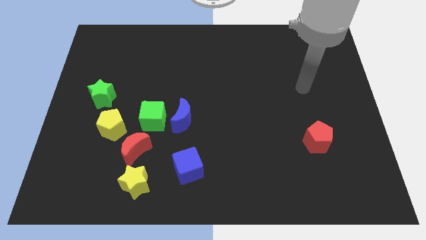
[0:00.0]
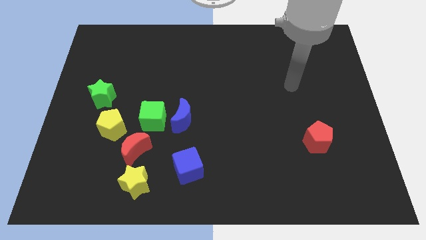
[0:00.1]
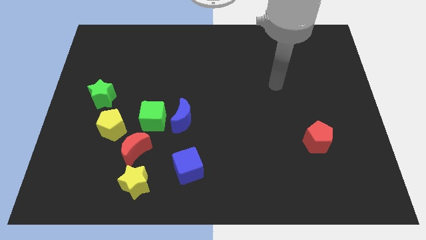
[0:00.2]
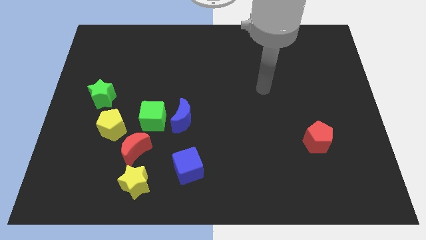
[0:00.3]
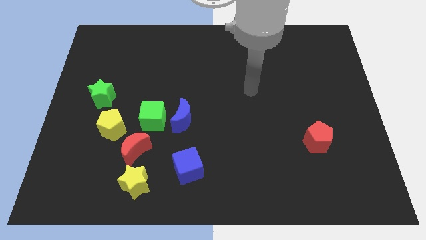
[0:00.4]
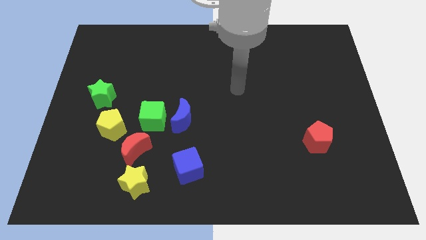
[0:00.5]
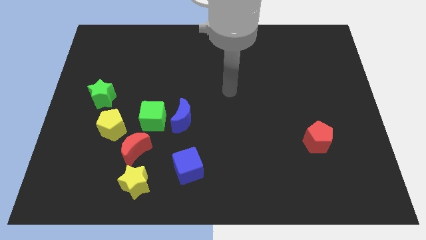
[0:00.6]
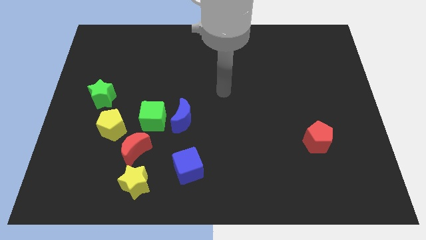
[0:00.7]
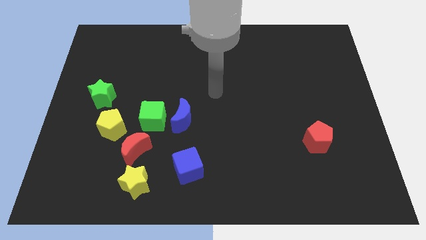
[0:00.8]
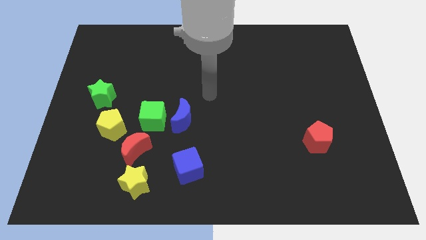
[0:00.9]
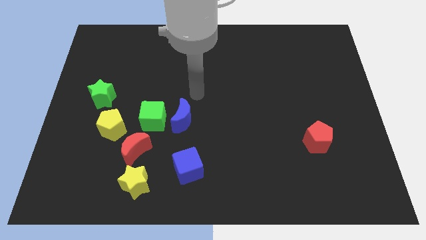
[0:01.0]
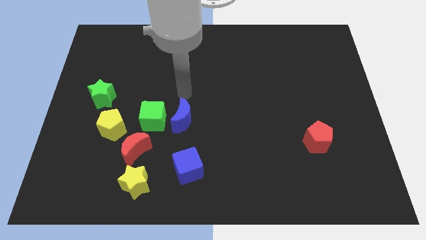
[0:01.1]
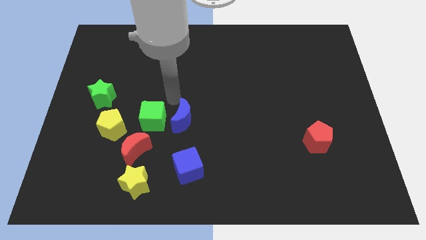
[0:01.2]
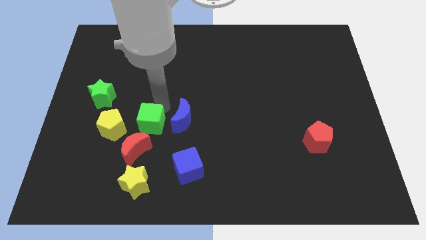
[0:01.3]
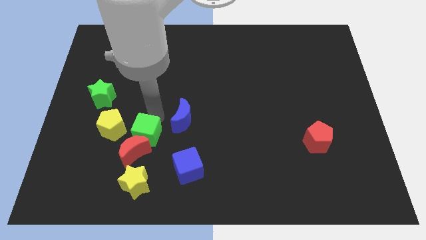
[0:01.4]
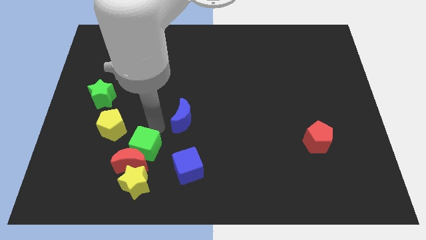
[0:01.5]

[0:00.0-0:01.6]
move the blue moon away from the green cube

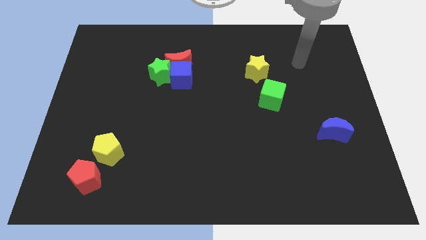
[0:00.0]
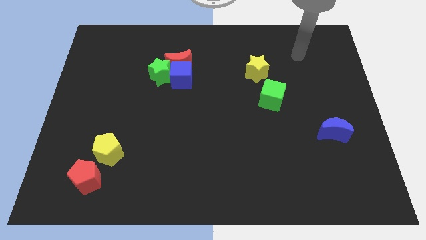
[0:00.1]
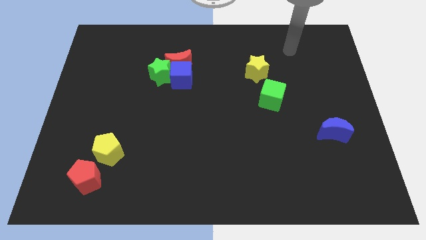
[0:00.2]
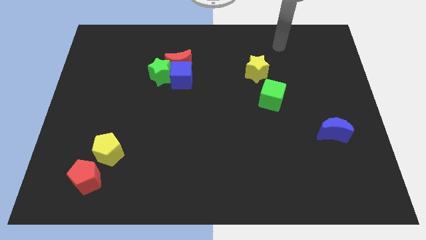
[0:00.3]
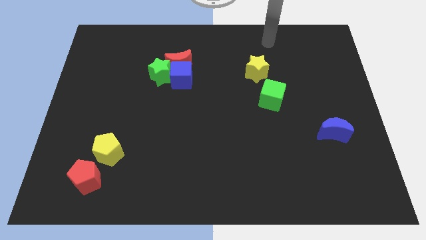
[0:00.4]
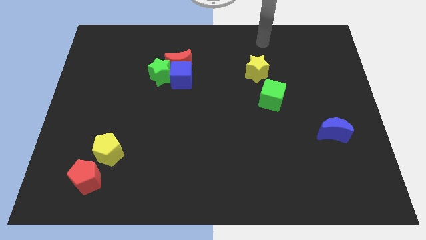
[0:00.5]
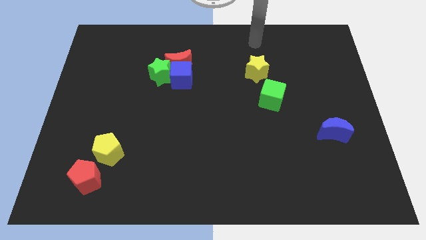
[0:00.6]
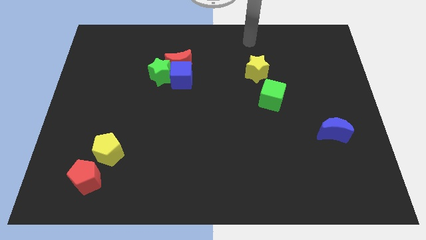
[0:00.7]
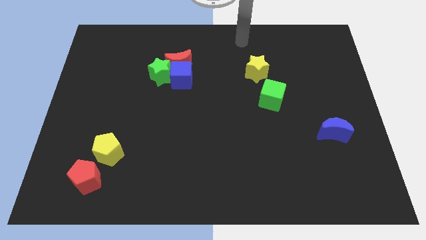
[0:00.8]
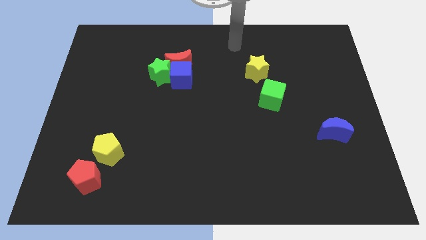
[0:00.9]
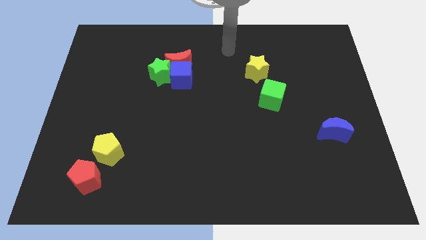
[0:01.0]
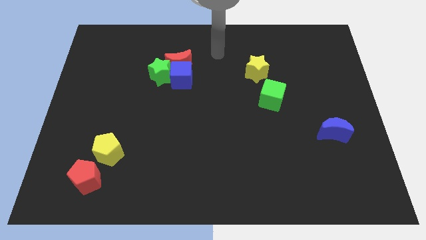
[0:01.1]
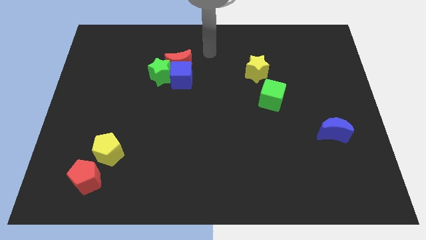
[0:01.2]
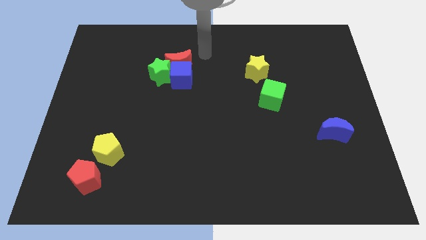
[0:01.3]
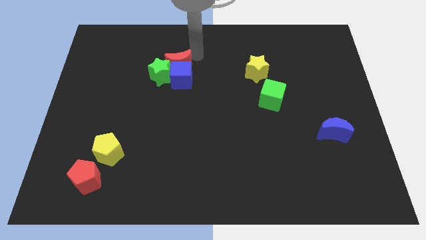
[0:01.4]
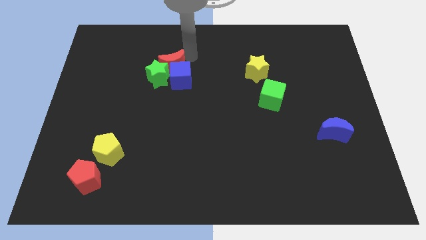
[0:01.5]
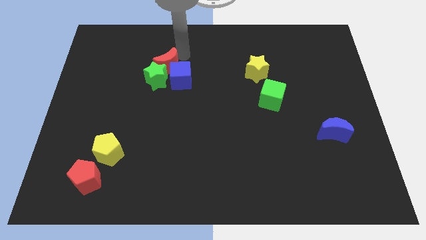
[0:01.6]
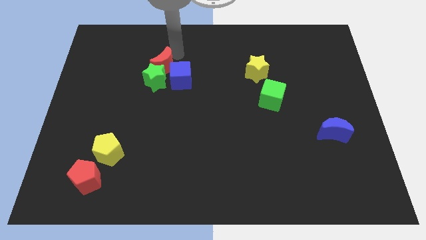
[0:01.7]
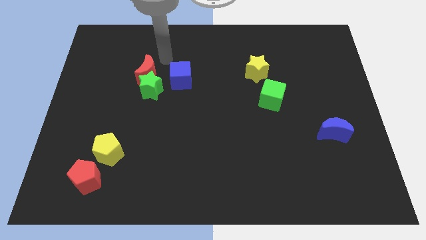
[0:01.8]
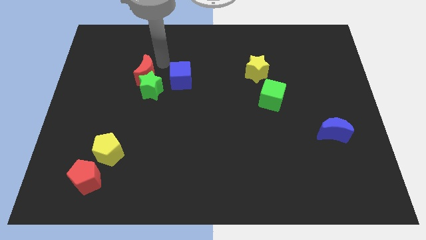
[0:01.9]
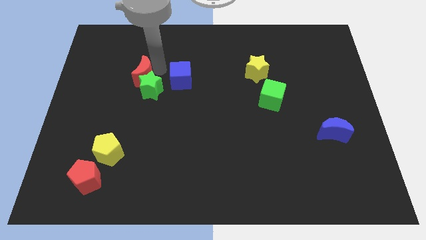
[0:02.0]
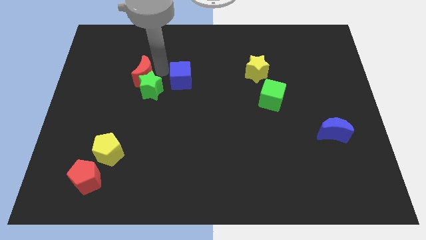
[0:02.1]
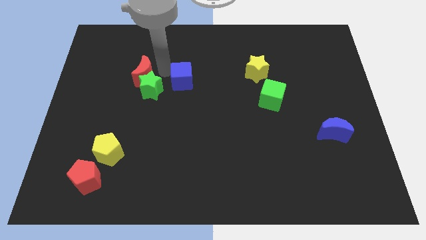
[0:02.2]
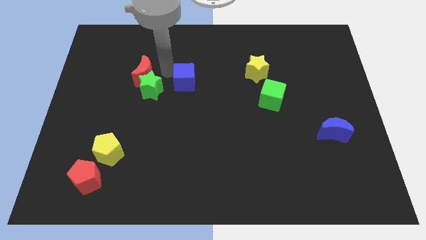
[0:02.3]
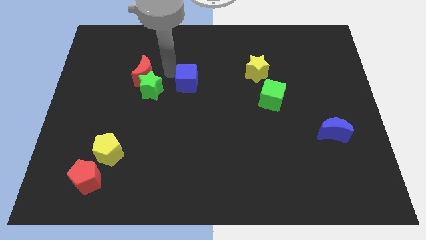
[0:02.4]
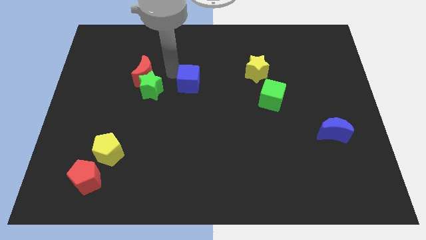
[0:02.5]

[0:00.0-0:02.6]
pull the blue cube apart from the red moon and green star

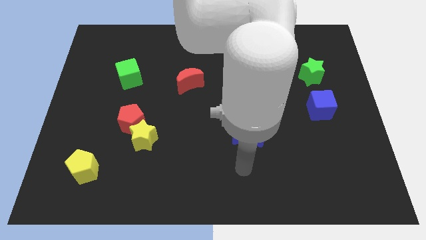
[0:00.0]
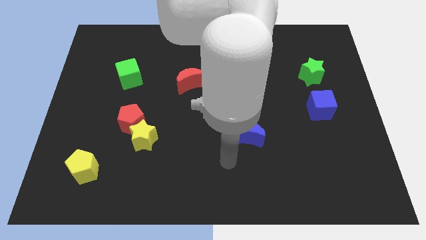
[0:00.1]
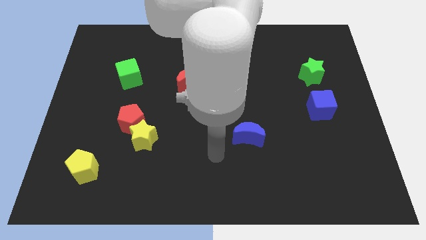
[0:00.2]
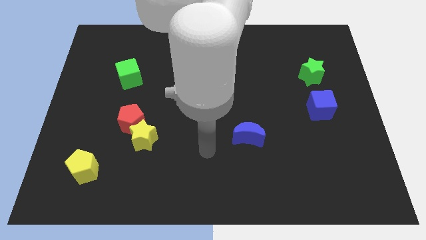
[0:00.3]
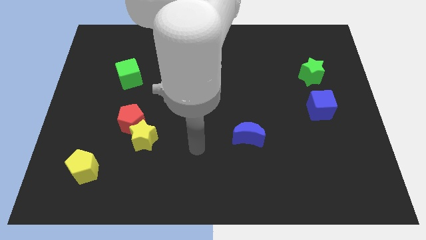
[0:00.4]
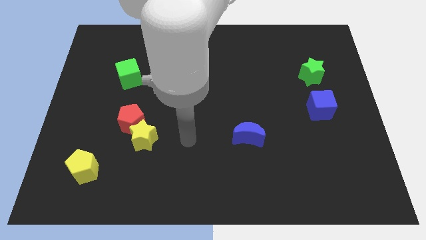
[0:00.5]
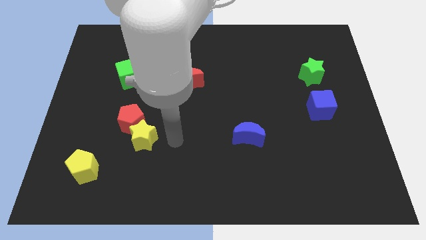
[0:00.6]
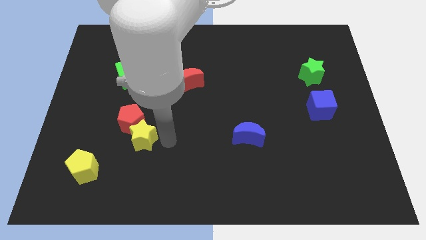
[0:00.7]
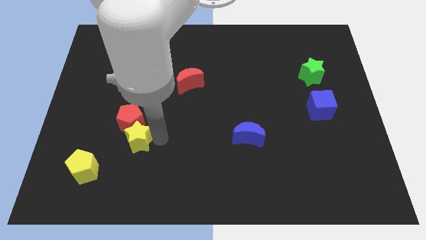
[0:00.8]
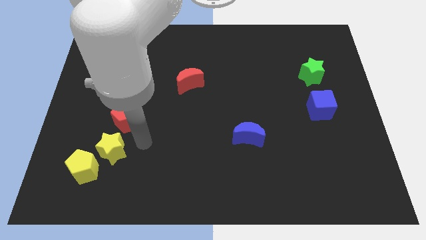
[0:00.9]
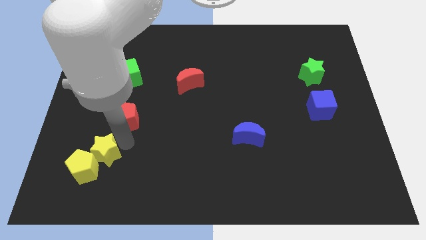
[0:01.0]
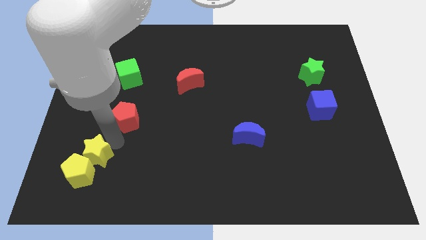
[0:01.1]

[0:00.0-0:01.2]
move the red pentagon away from the yellow star

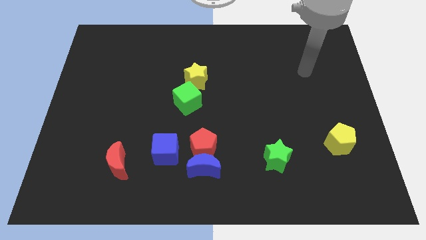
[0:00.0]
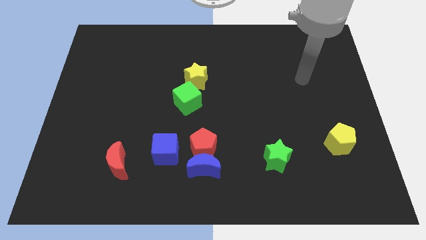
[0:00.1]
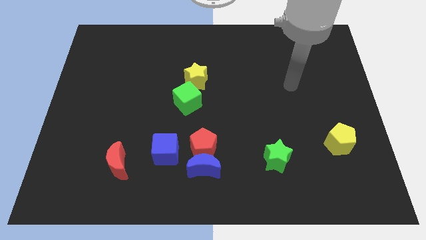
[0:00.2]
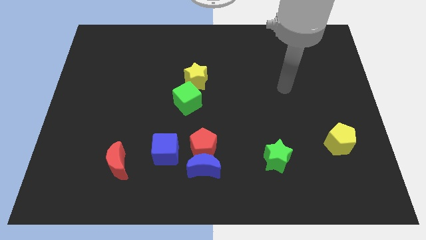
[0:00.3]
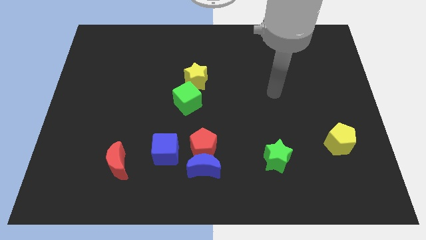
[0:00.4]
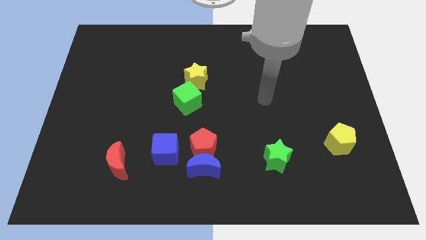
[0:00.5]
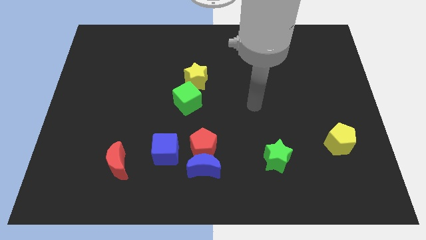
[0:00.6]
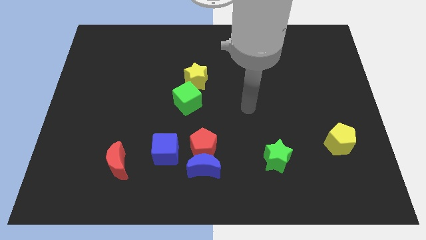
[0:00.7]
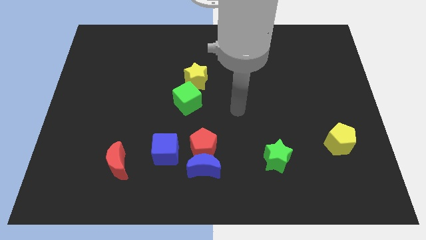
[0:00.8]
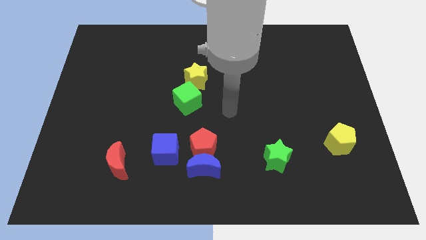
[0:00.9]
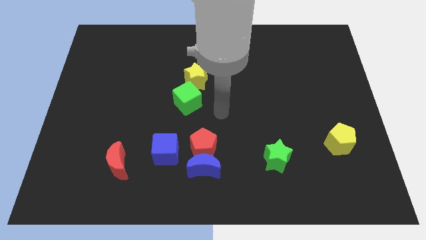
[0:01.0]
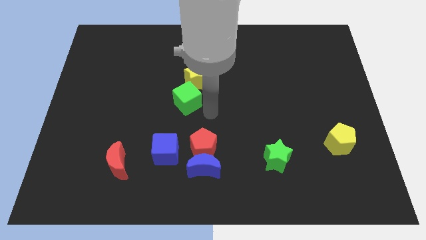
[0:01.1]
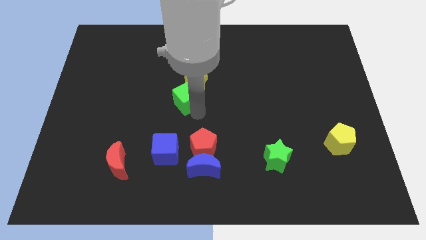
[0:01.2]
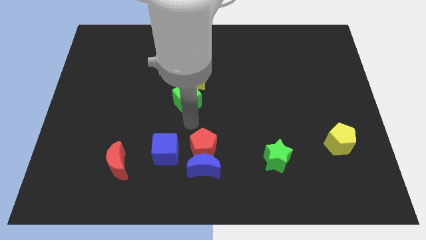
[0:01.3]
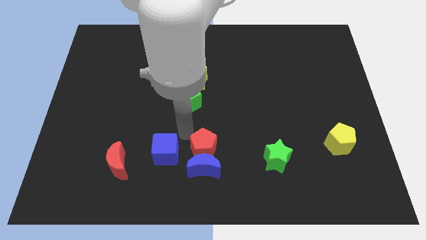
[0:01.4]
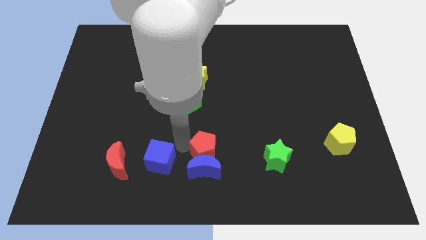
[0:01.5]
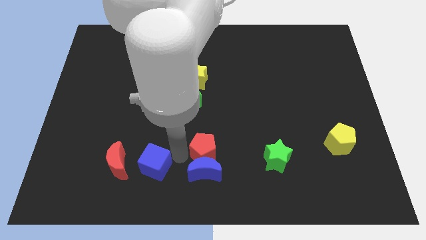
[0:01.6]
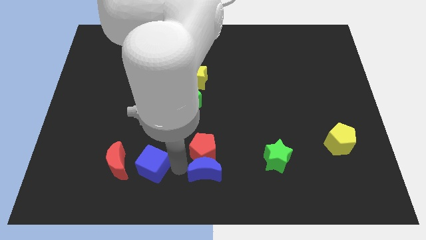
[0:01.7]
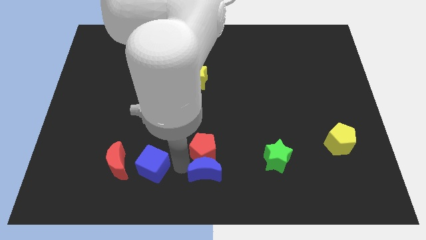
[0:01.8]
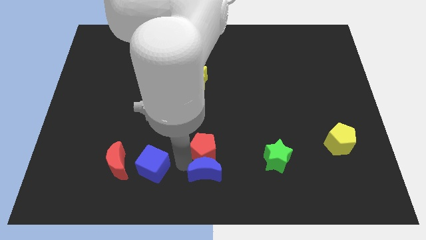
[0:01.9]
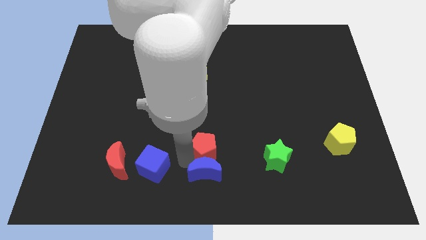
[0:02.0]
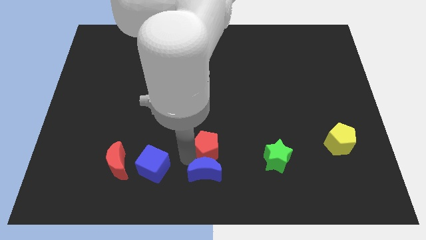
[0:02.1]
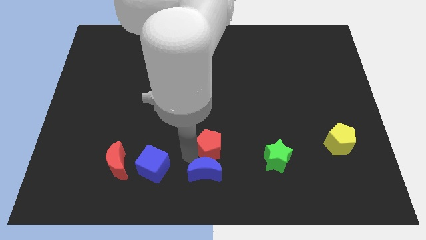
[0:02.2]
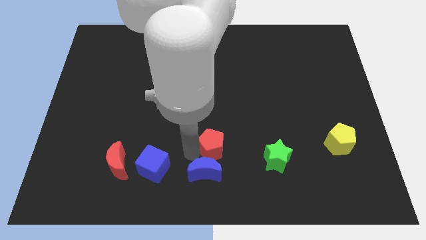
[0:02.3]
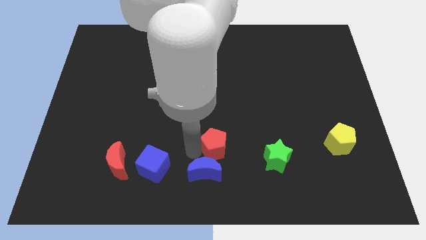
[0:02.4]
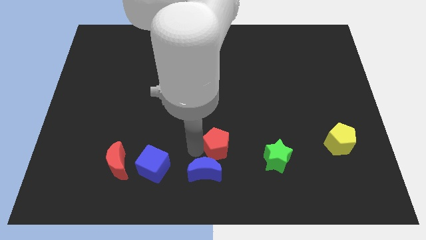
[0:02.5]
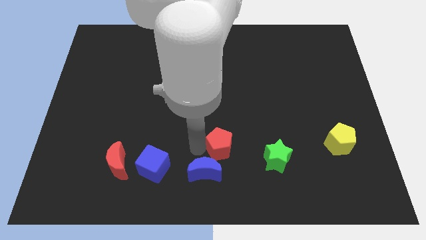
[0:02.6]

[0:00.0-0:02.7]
separate the red pentagon from the blue moon and blue cube

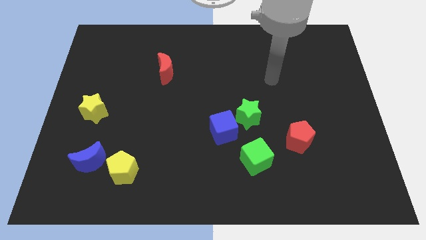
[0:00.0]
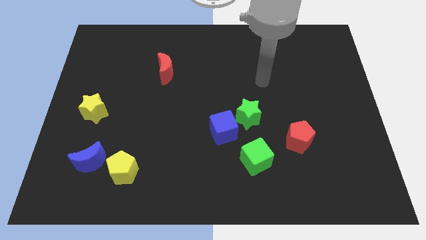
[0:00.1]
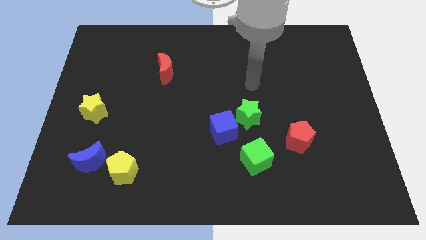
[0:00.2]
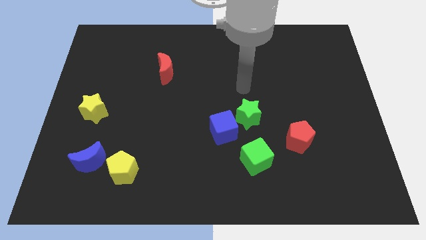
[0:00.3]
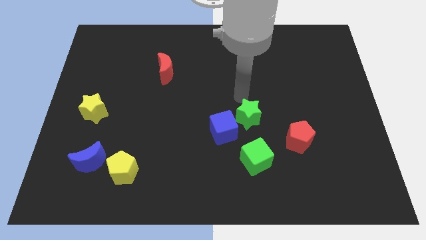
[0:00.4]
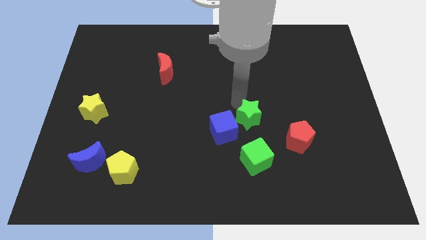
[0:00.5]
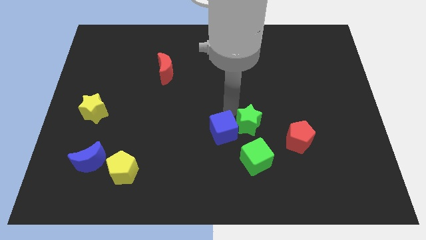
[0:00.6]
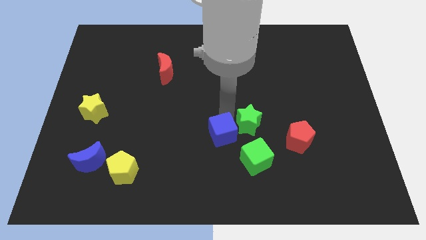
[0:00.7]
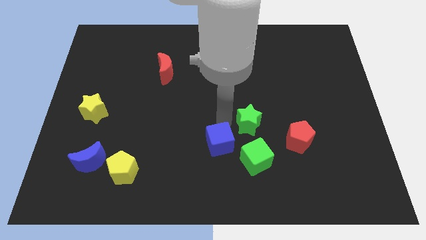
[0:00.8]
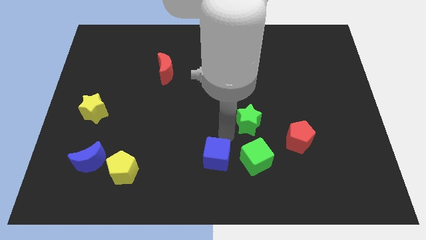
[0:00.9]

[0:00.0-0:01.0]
separate the green star from the blue cube

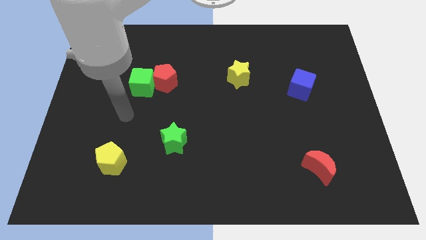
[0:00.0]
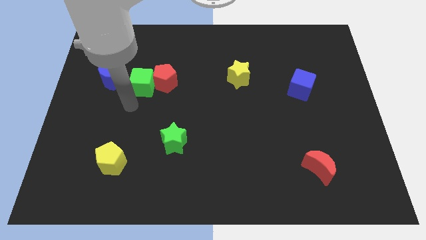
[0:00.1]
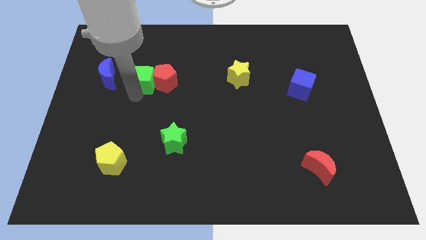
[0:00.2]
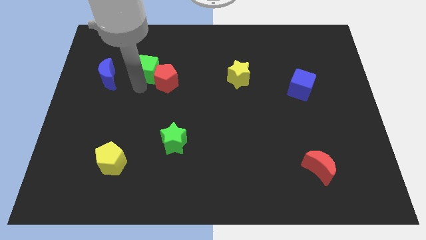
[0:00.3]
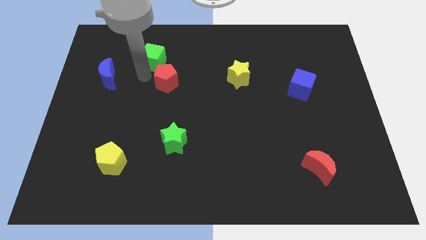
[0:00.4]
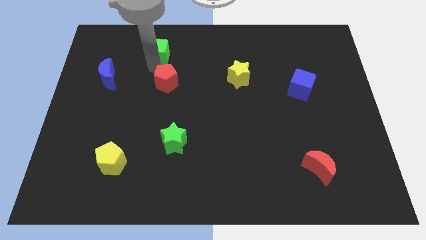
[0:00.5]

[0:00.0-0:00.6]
pull the red pentagon apart from the green cube
